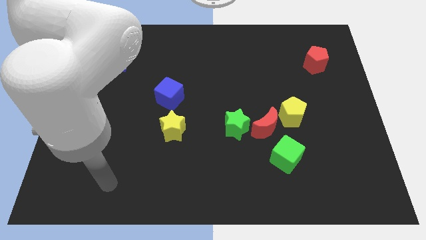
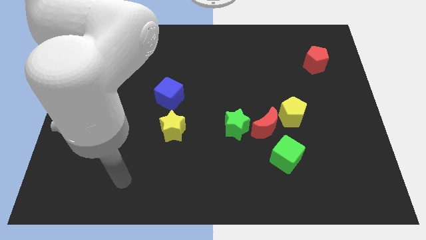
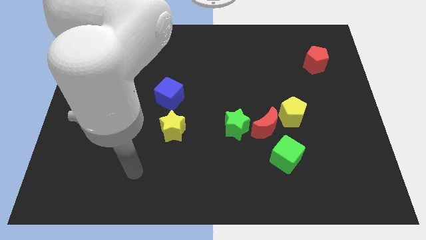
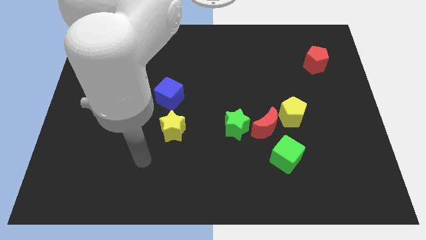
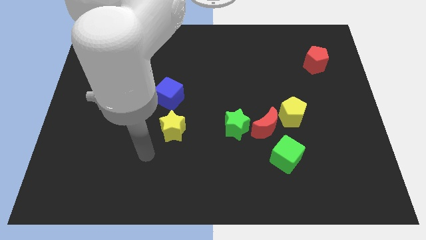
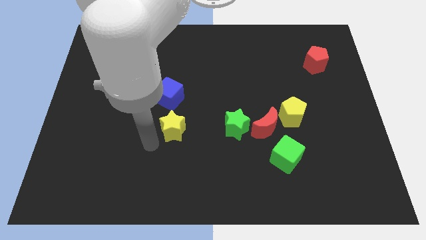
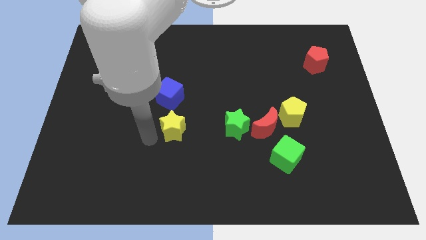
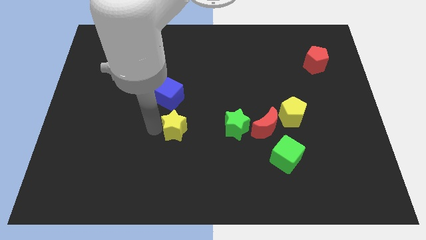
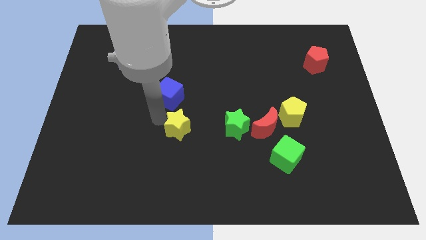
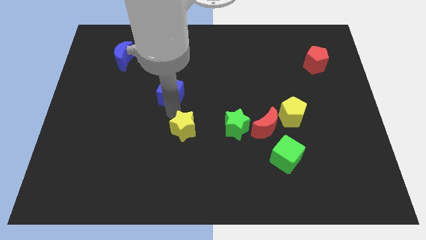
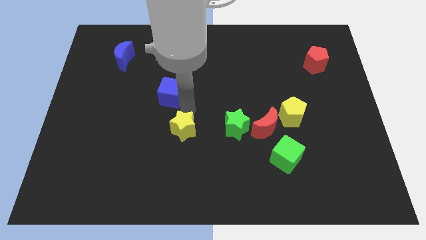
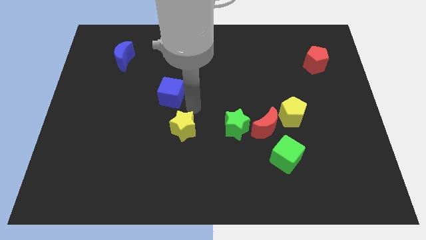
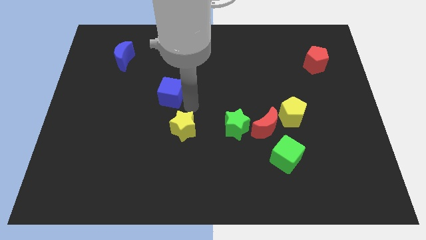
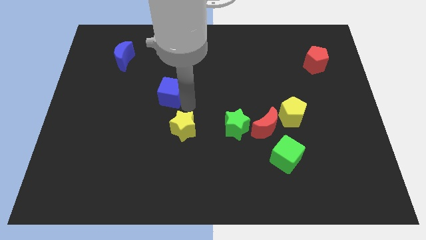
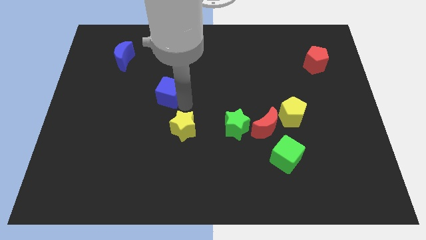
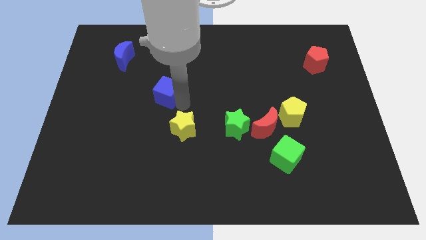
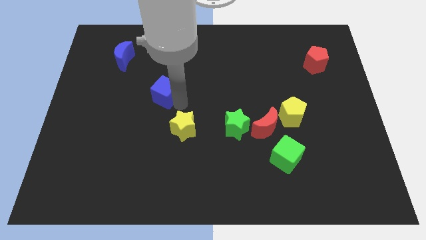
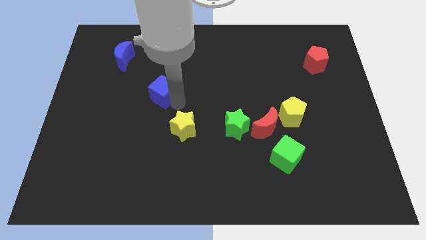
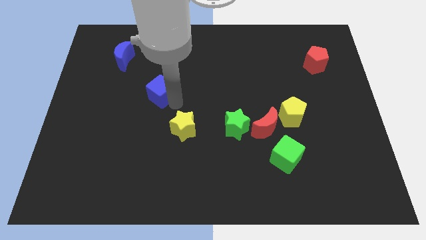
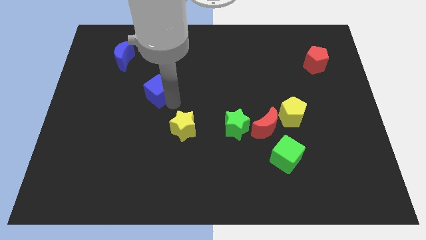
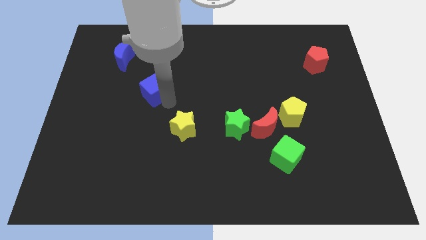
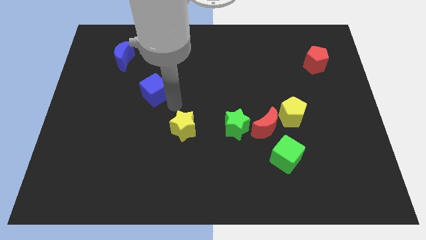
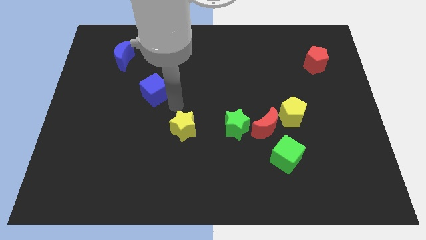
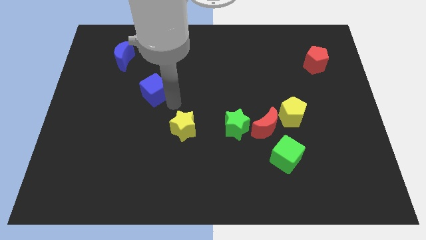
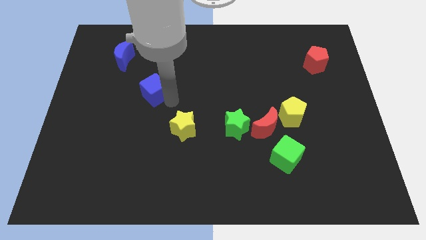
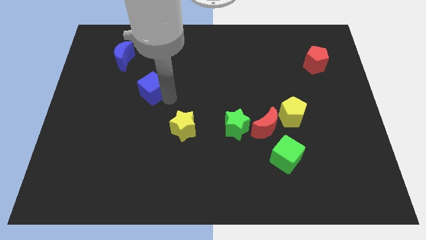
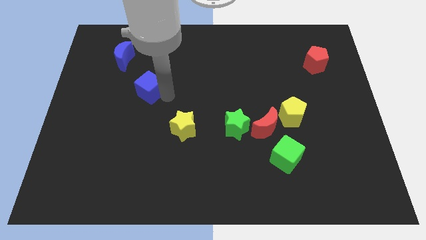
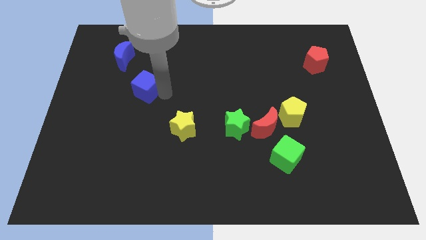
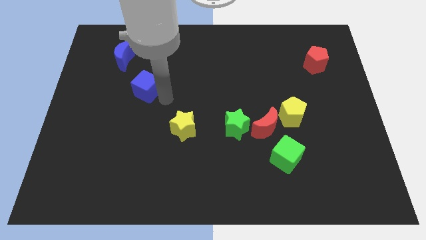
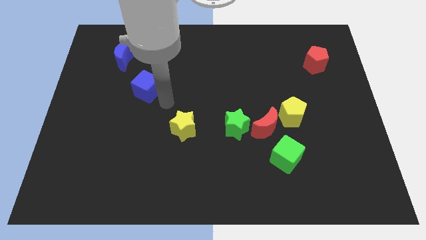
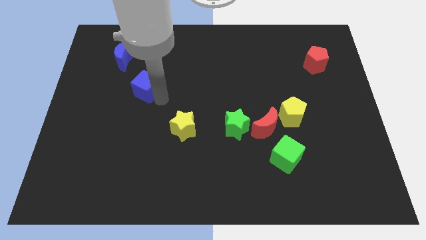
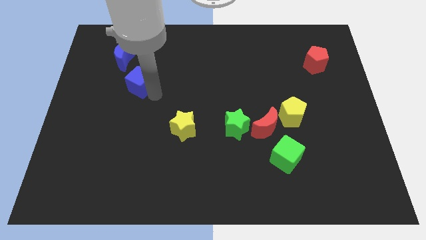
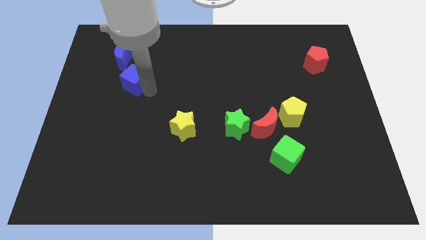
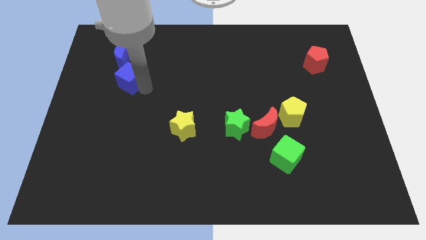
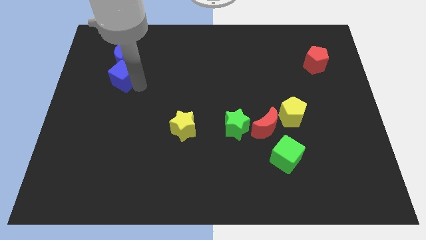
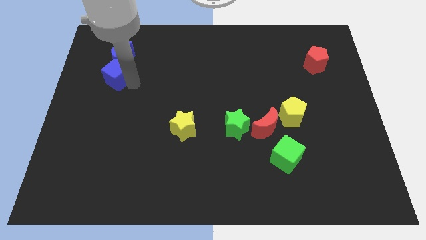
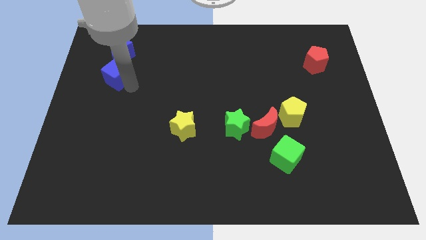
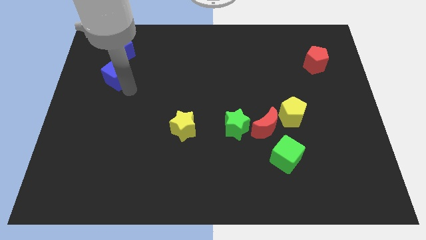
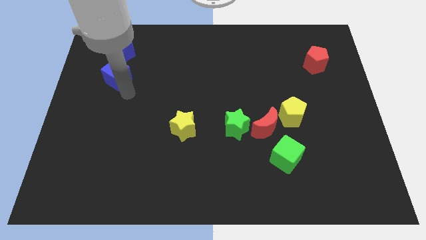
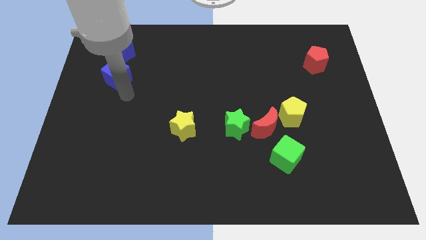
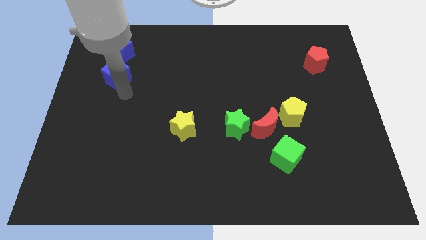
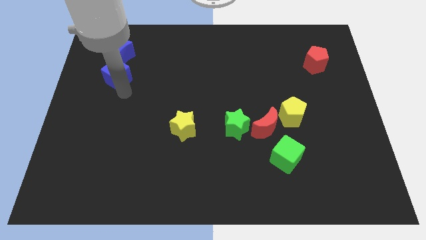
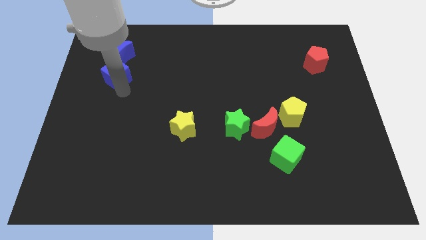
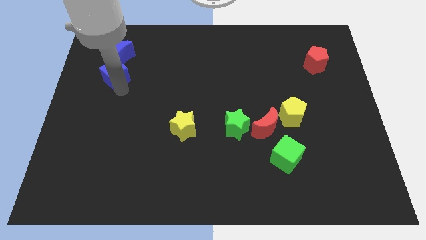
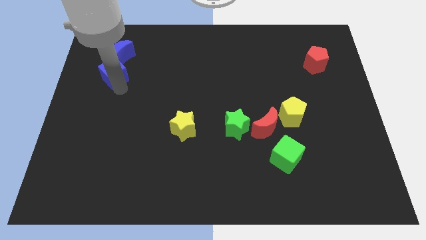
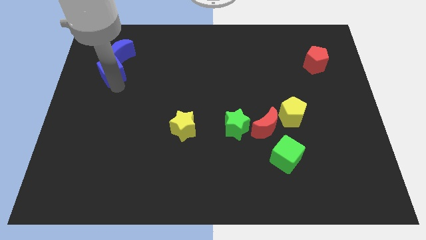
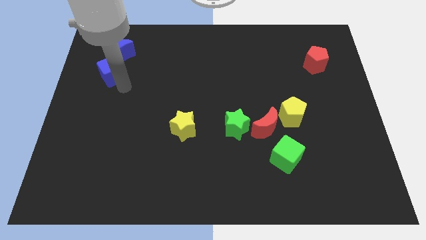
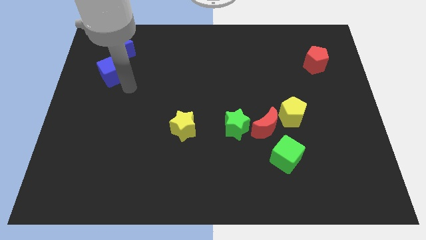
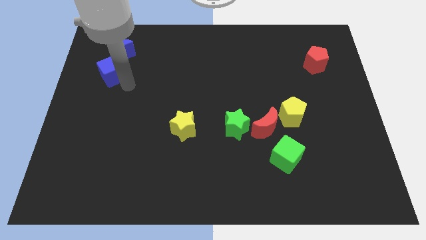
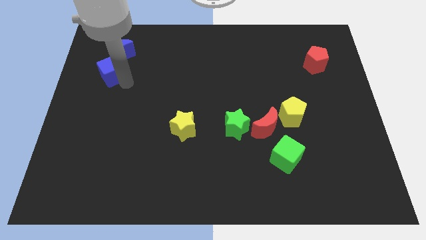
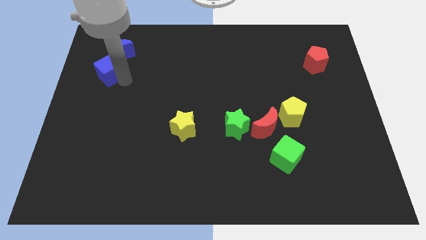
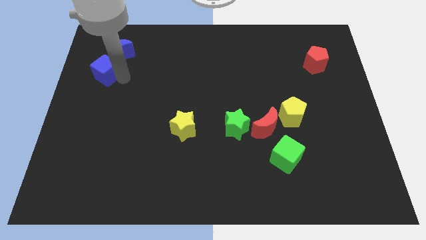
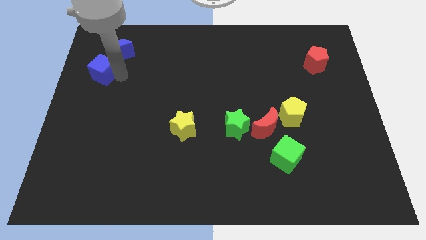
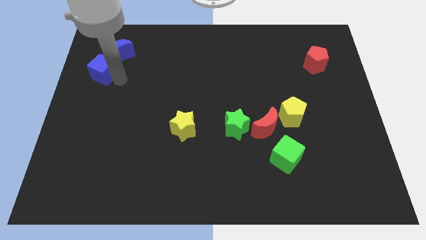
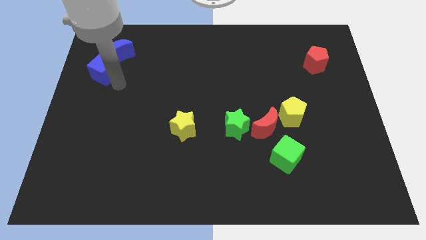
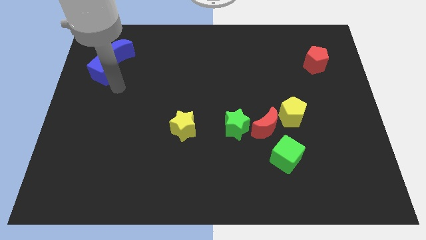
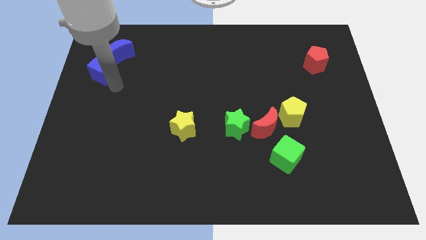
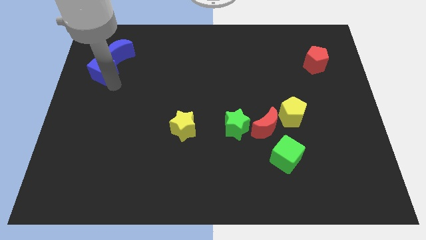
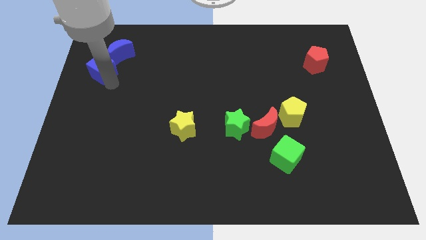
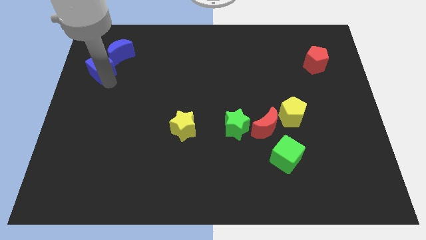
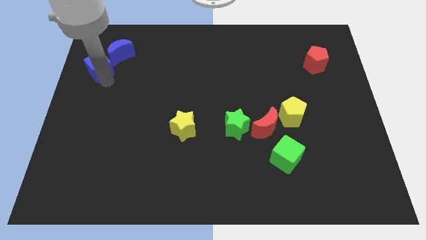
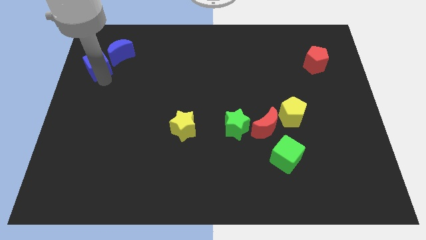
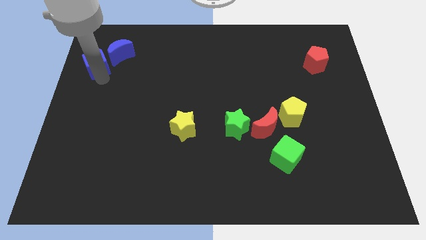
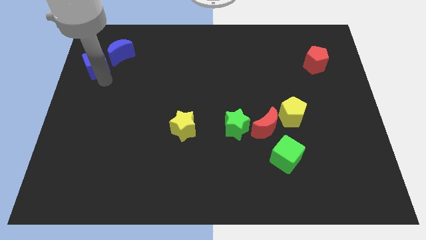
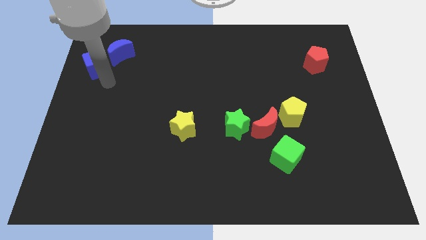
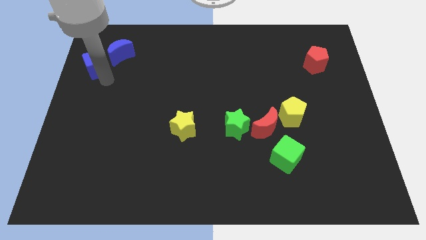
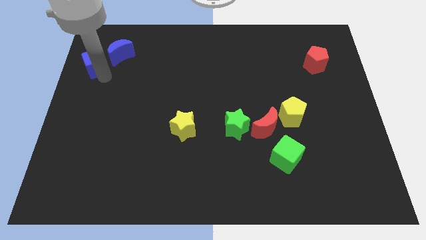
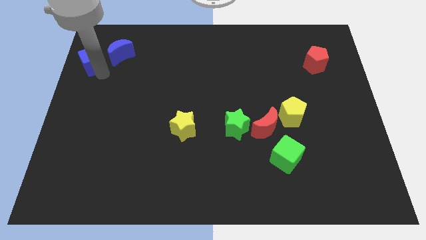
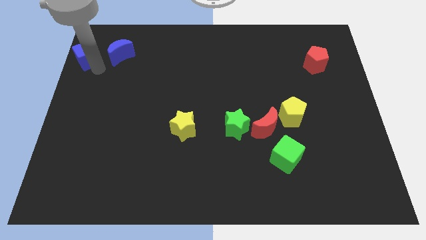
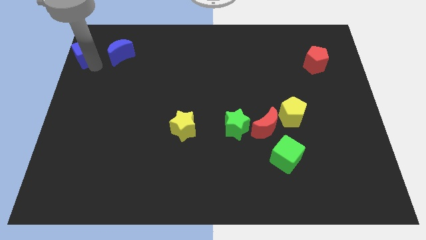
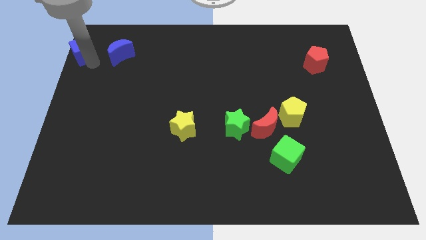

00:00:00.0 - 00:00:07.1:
slide the blue cube to the top left corner
